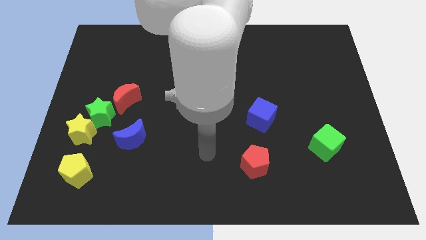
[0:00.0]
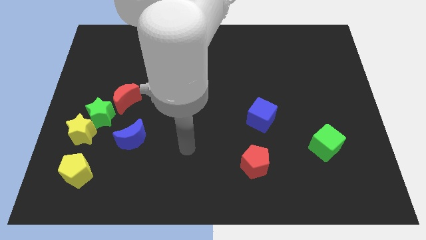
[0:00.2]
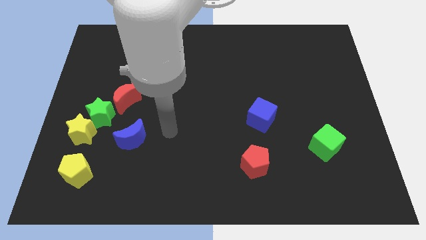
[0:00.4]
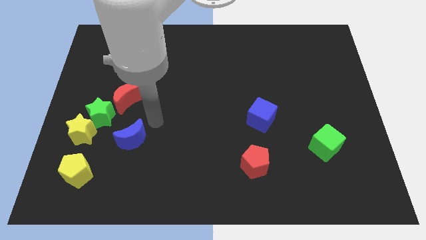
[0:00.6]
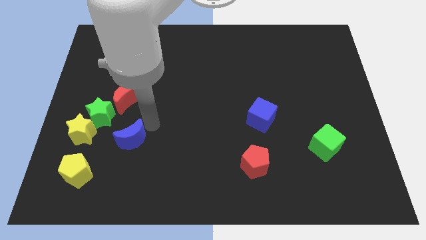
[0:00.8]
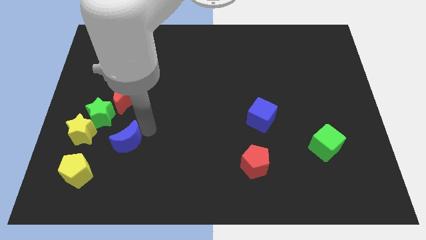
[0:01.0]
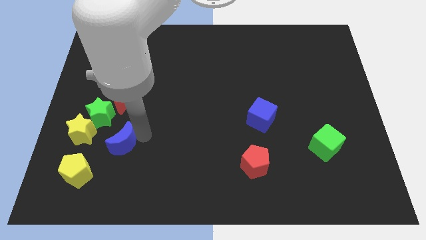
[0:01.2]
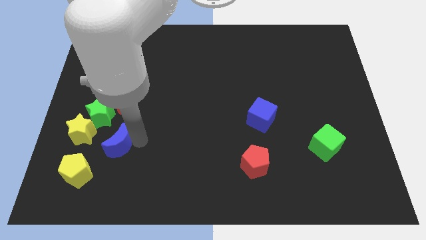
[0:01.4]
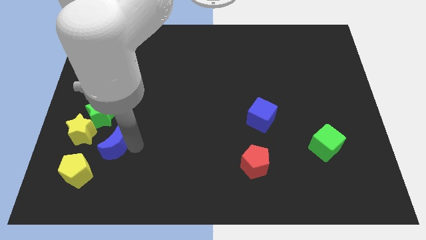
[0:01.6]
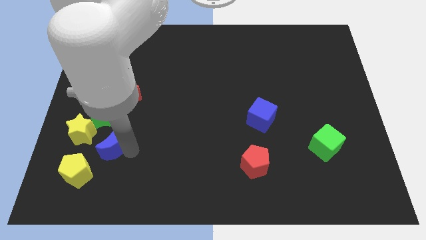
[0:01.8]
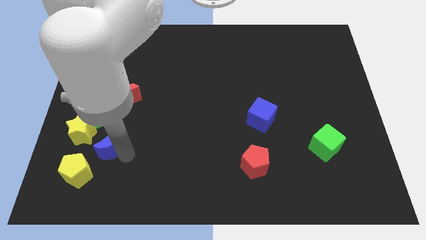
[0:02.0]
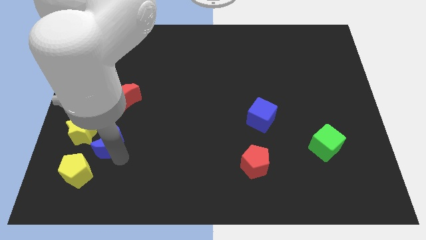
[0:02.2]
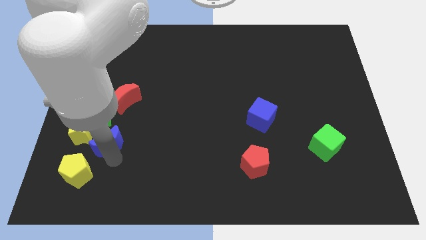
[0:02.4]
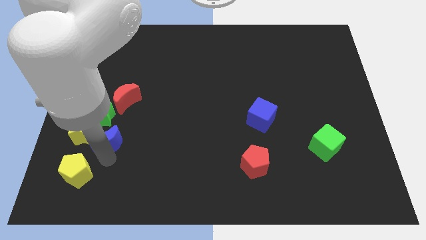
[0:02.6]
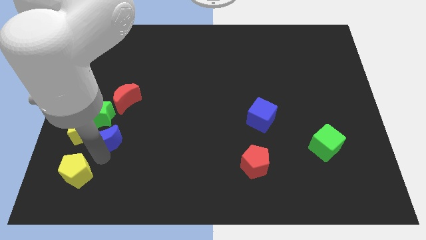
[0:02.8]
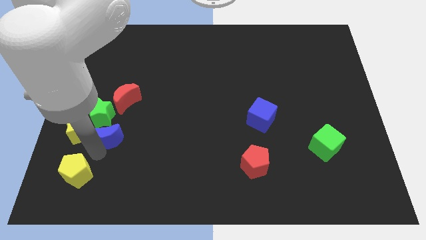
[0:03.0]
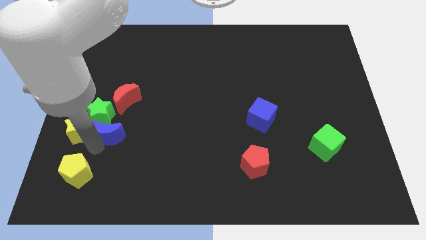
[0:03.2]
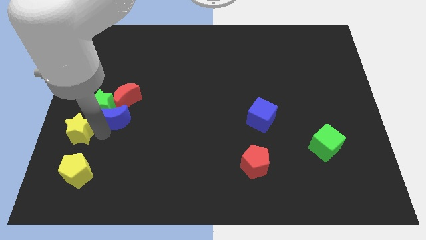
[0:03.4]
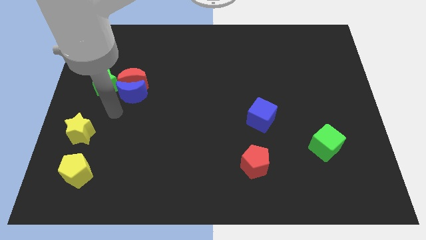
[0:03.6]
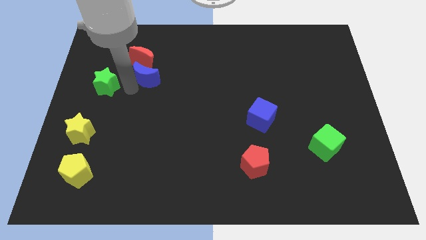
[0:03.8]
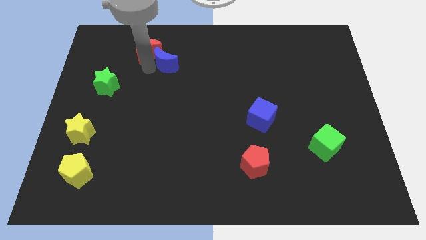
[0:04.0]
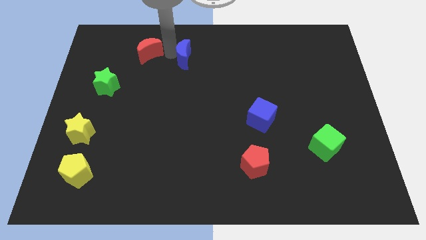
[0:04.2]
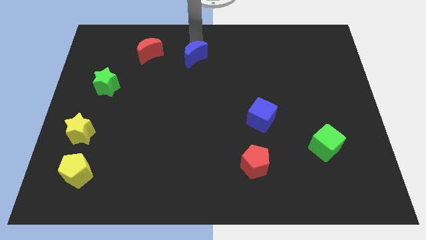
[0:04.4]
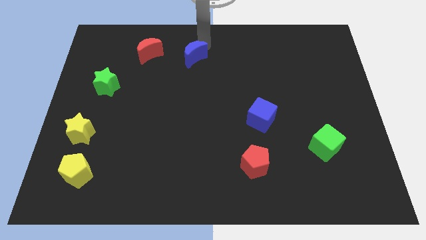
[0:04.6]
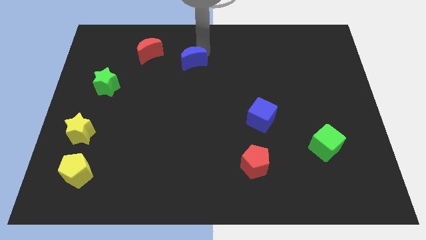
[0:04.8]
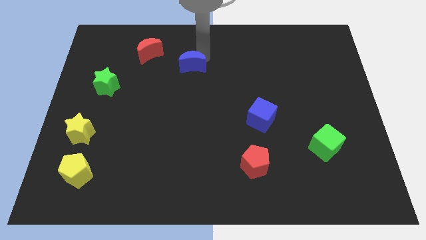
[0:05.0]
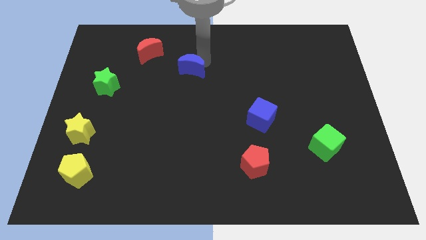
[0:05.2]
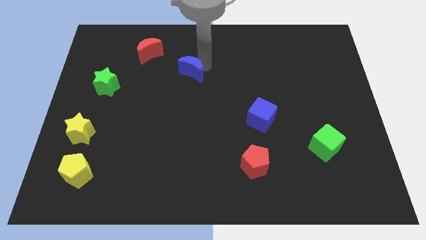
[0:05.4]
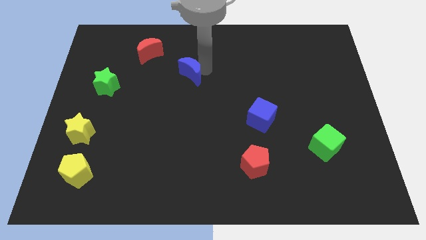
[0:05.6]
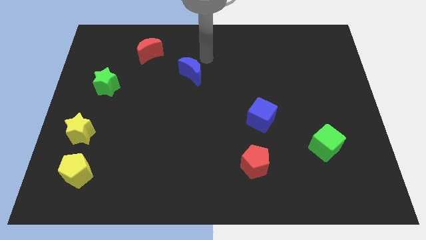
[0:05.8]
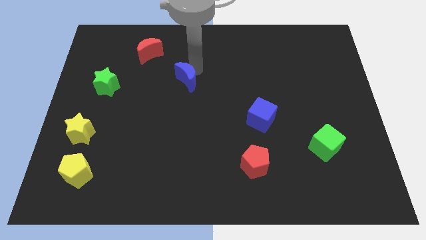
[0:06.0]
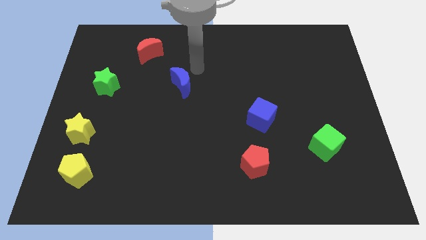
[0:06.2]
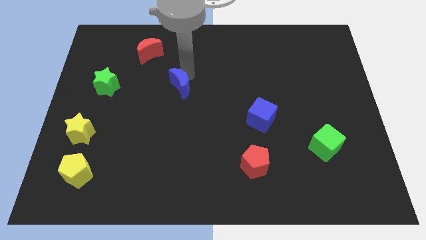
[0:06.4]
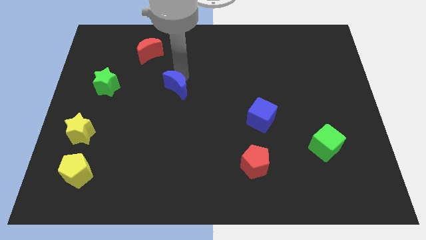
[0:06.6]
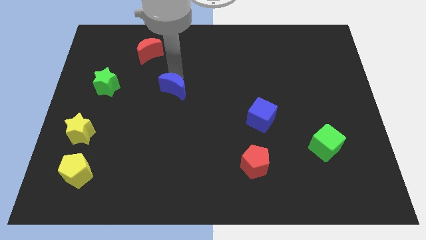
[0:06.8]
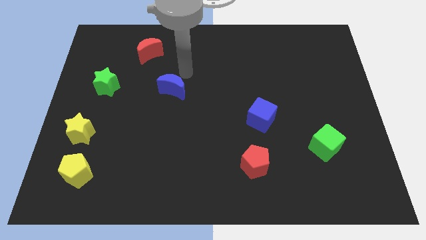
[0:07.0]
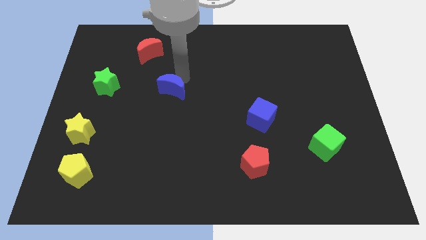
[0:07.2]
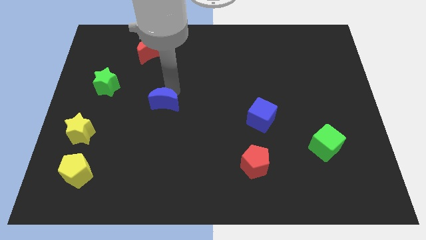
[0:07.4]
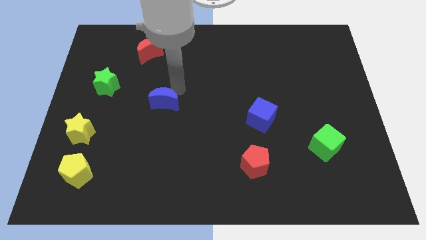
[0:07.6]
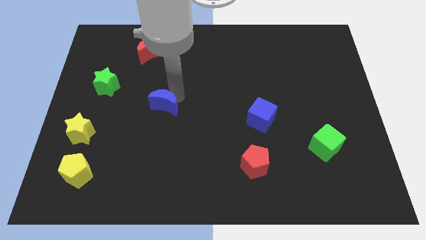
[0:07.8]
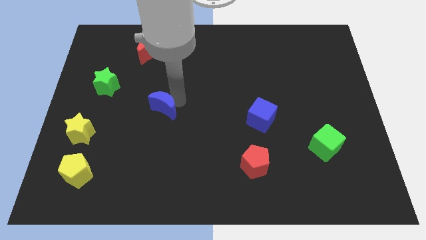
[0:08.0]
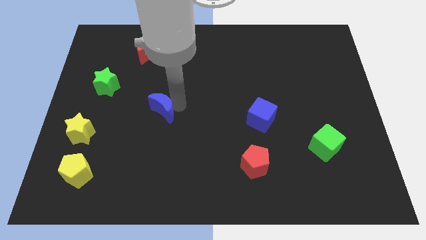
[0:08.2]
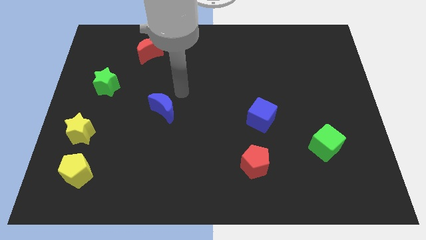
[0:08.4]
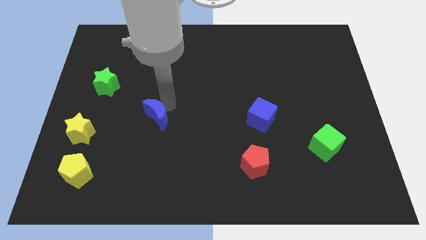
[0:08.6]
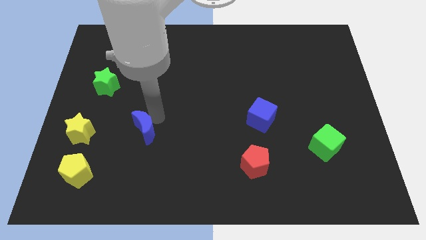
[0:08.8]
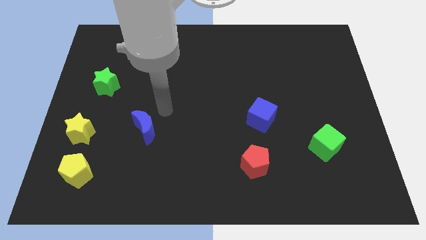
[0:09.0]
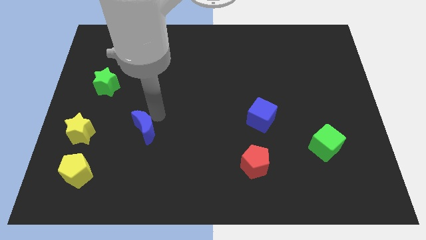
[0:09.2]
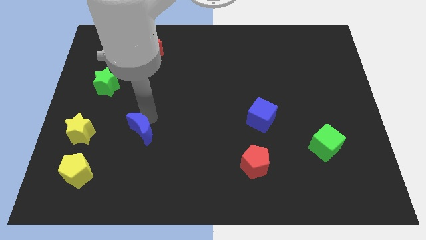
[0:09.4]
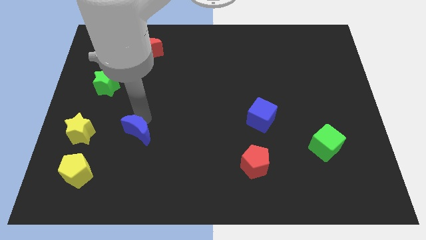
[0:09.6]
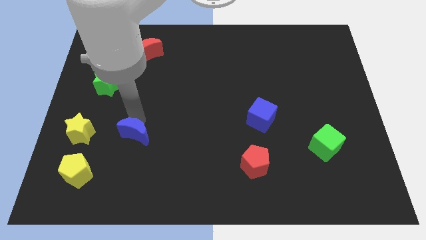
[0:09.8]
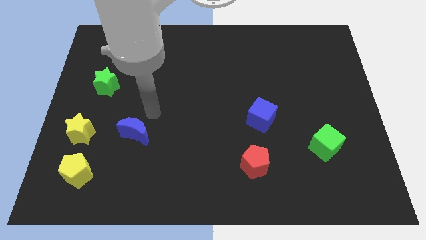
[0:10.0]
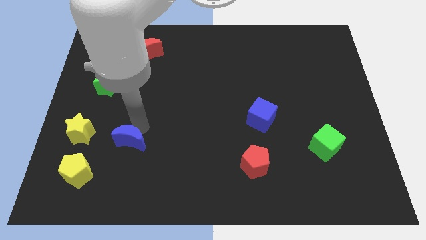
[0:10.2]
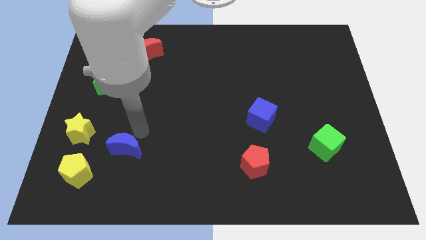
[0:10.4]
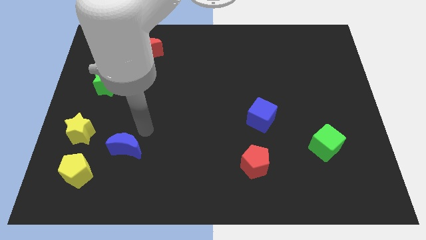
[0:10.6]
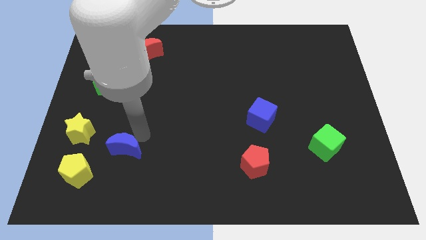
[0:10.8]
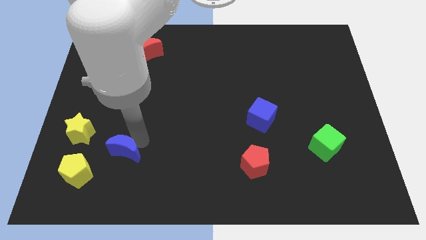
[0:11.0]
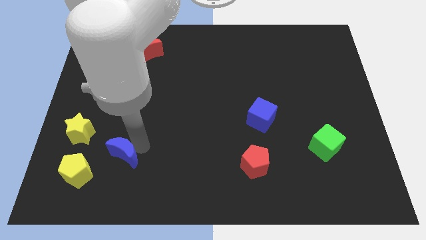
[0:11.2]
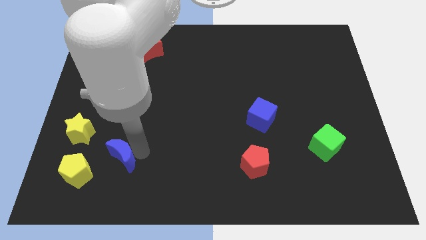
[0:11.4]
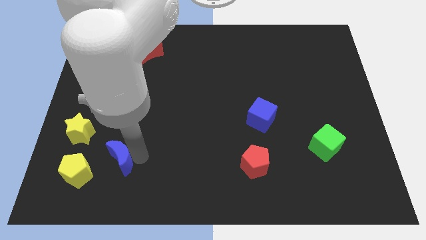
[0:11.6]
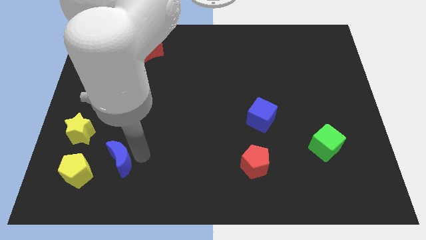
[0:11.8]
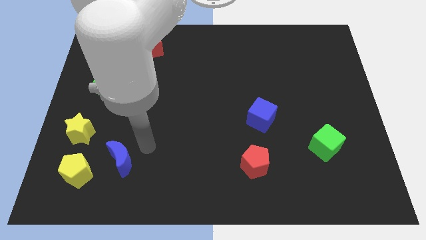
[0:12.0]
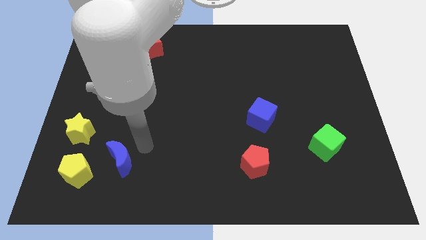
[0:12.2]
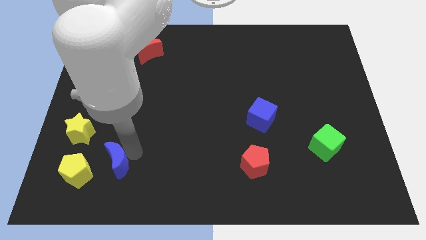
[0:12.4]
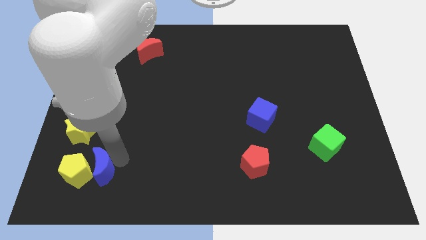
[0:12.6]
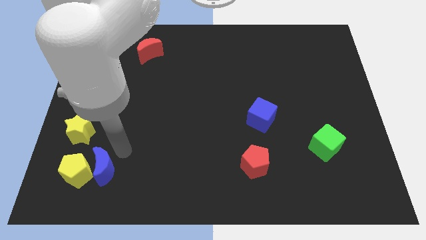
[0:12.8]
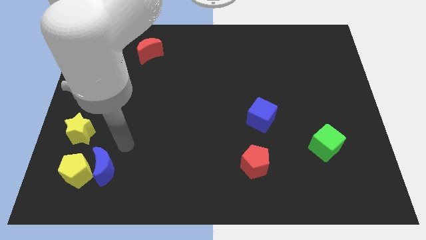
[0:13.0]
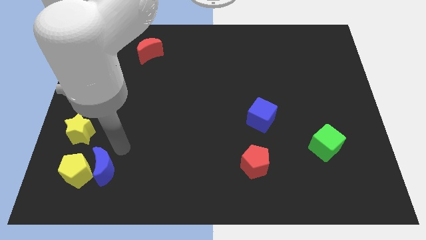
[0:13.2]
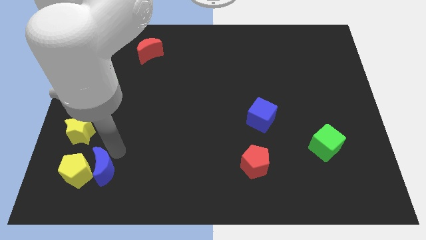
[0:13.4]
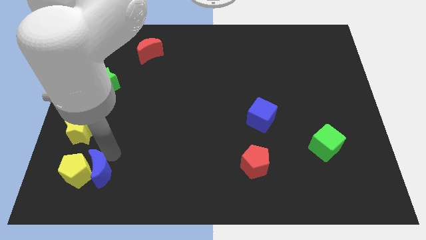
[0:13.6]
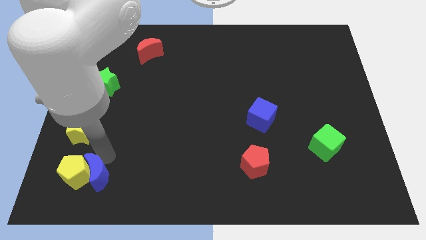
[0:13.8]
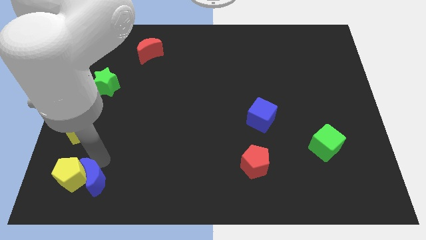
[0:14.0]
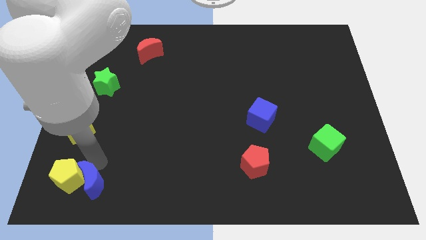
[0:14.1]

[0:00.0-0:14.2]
move the blue moon below the yellow star

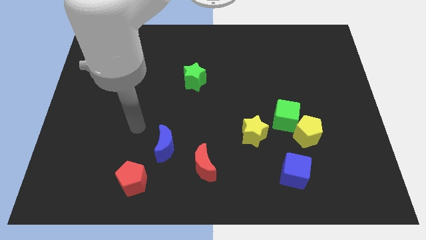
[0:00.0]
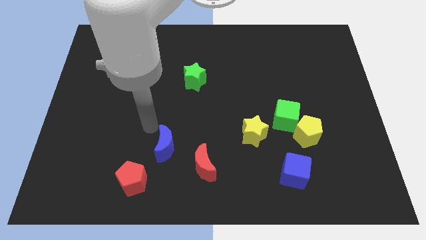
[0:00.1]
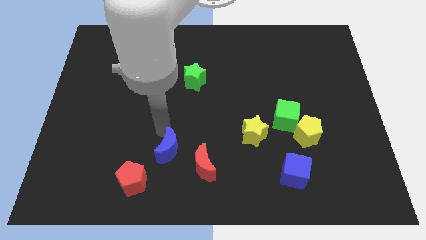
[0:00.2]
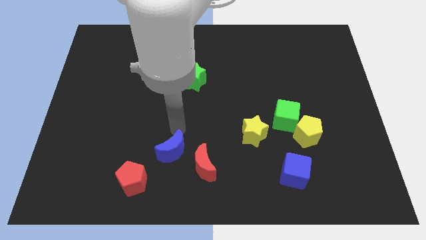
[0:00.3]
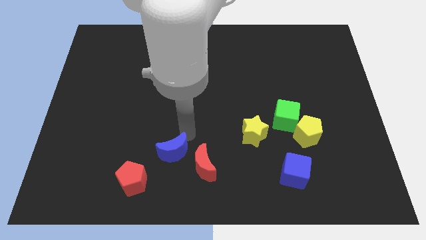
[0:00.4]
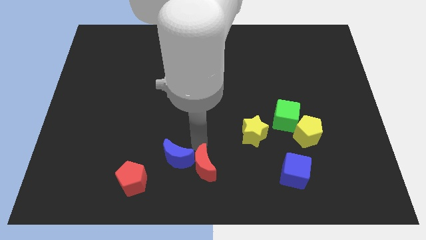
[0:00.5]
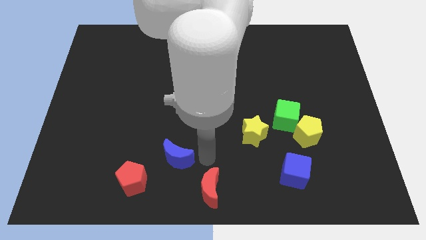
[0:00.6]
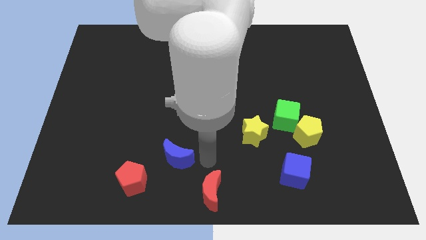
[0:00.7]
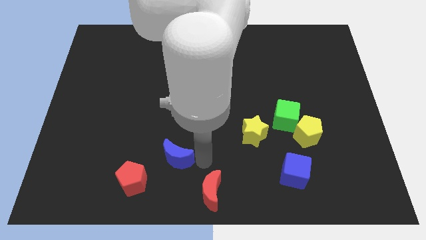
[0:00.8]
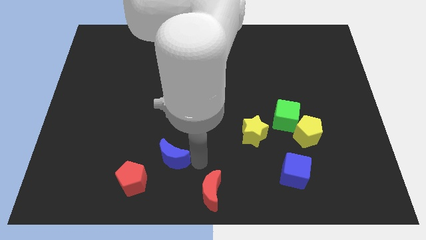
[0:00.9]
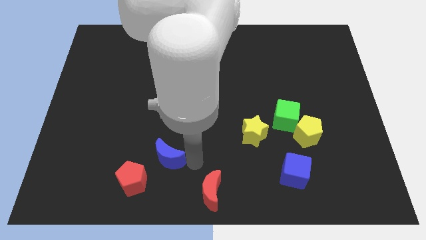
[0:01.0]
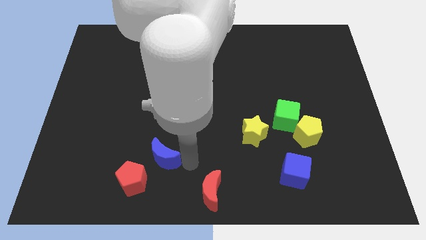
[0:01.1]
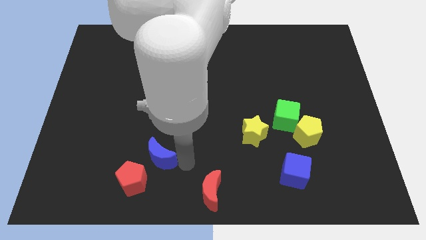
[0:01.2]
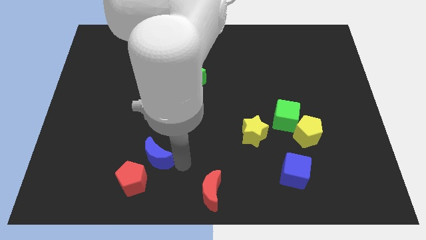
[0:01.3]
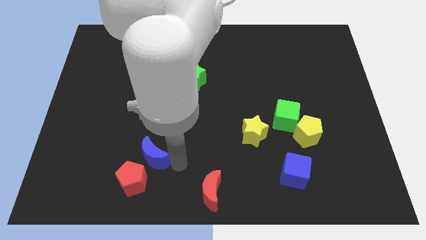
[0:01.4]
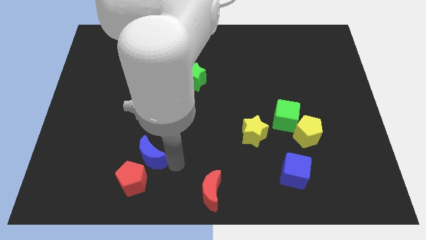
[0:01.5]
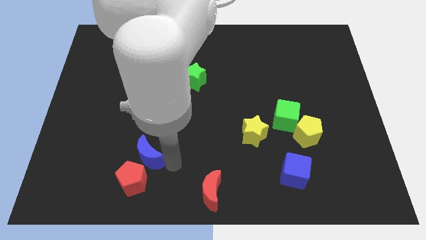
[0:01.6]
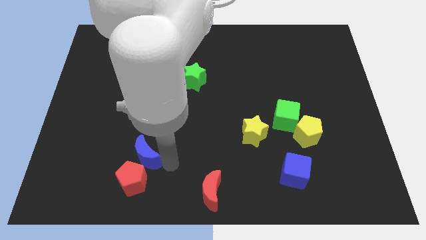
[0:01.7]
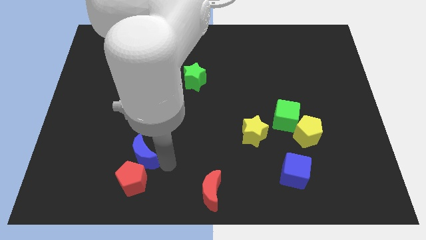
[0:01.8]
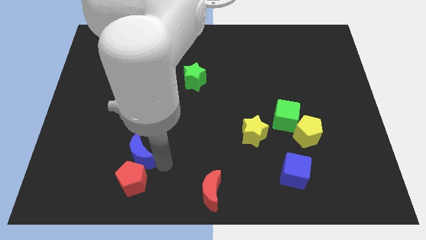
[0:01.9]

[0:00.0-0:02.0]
move the blue moon to the top left of the red pentagon
